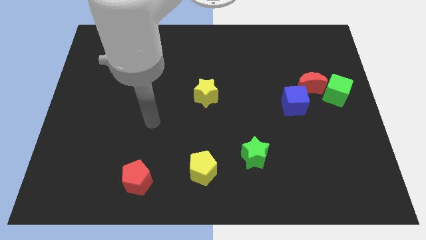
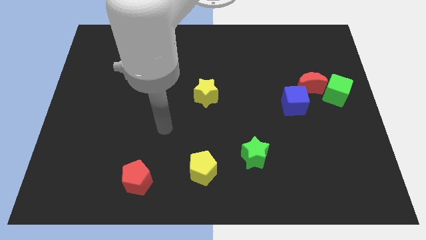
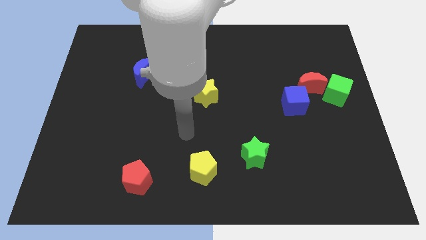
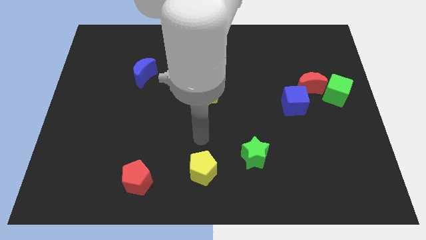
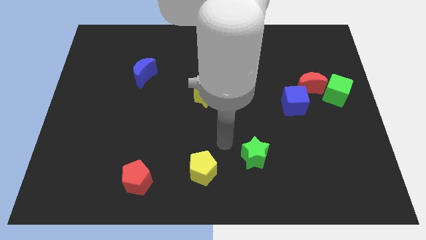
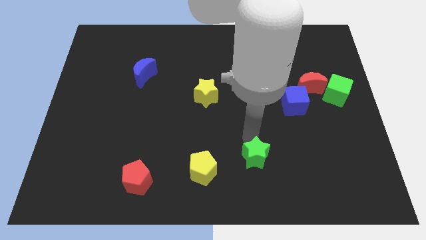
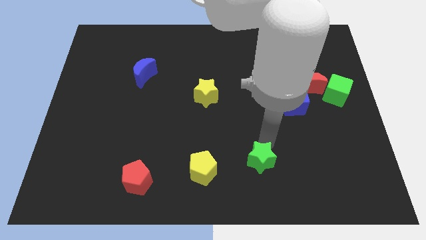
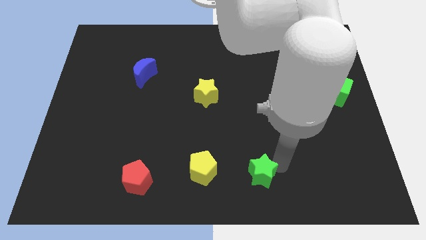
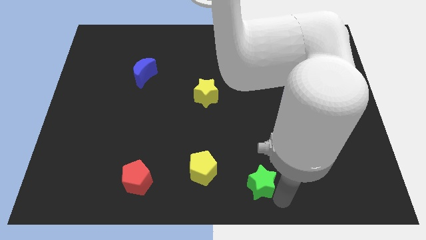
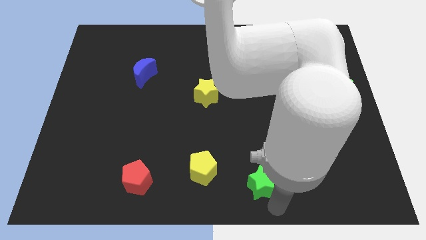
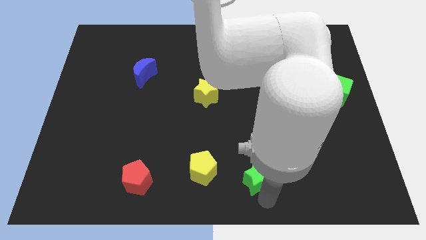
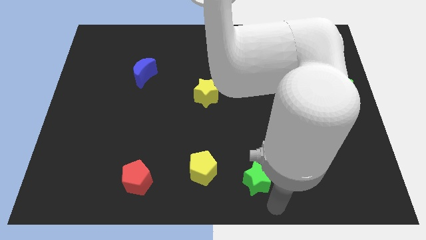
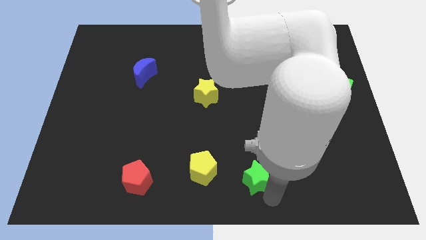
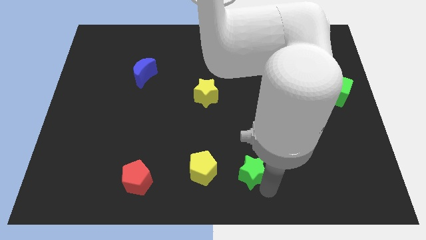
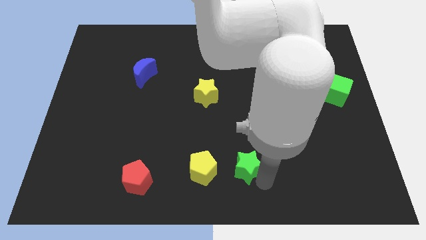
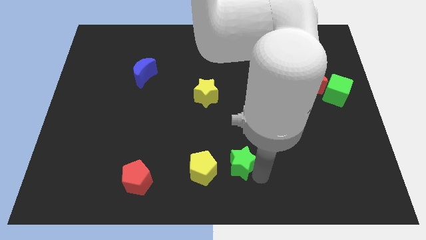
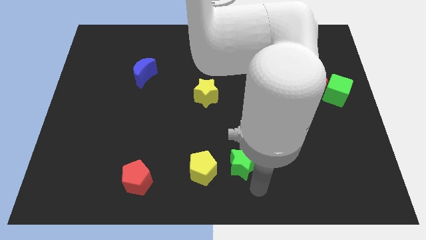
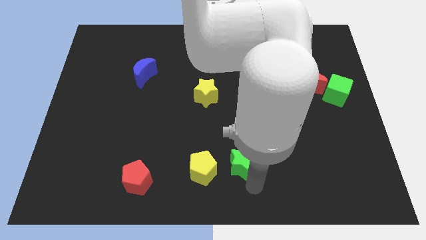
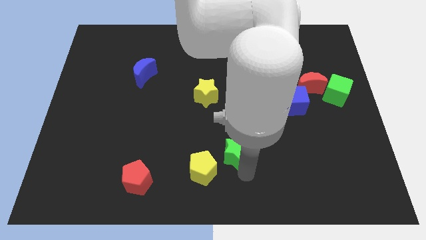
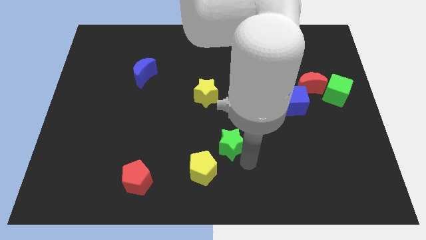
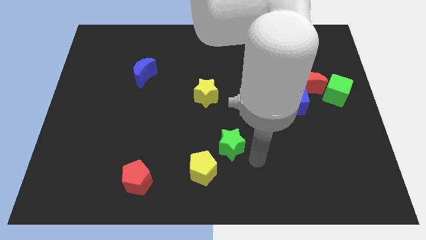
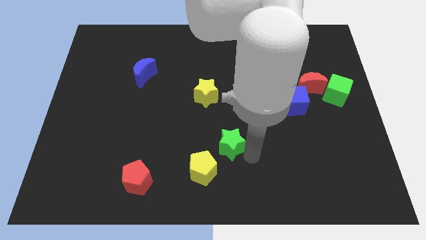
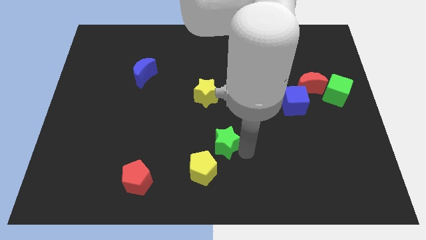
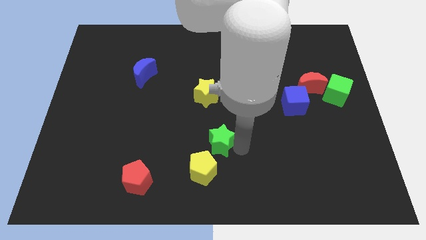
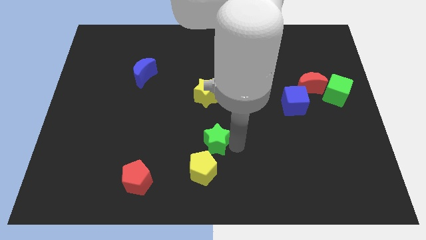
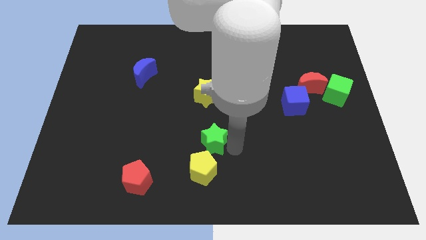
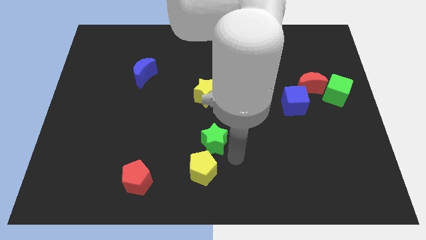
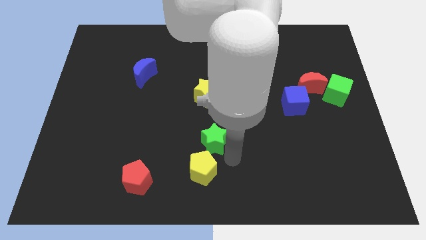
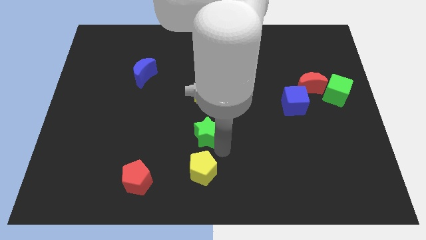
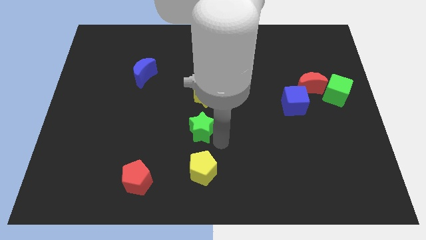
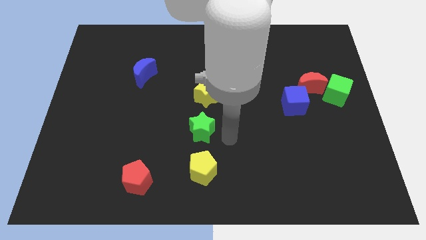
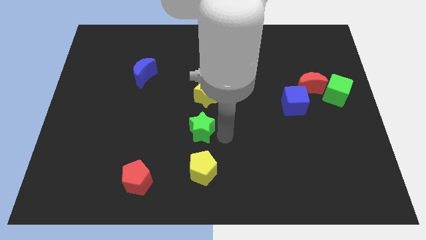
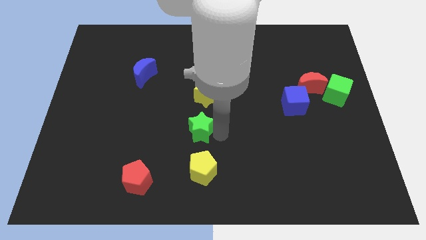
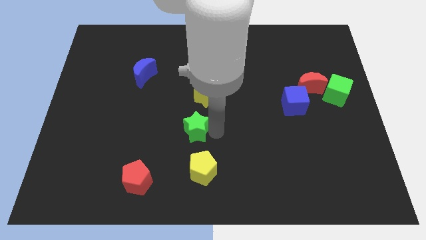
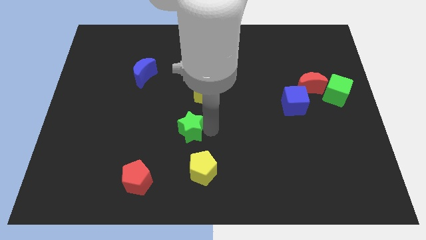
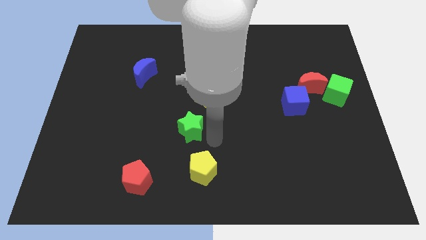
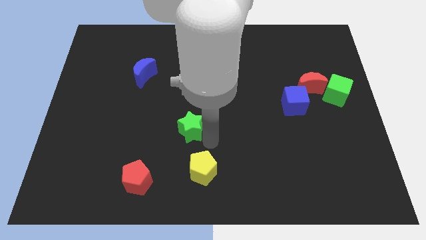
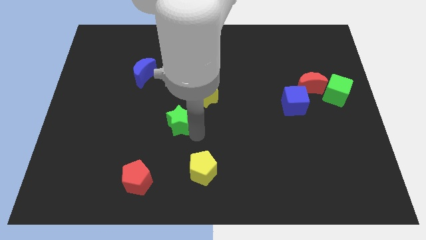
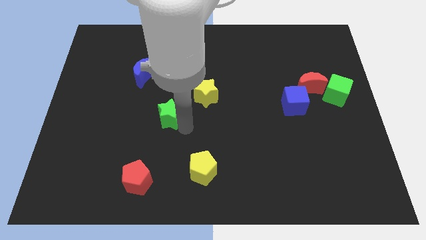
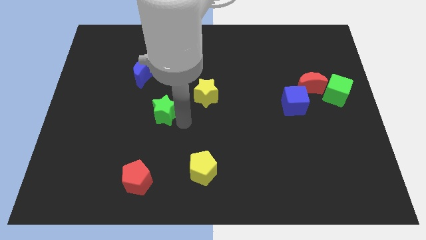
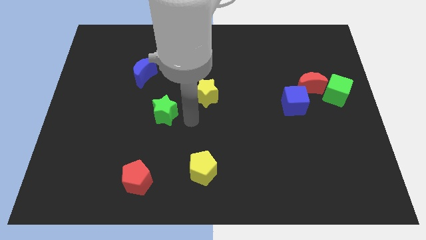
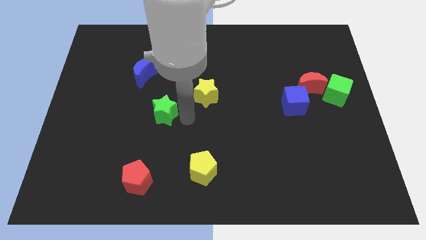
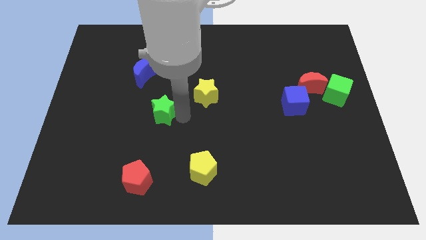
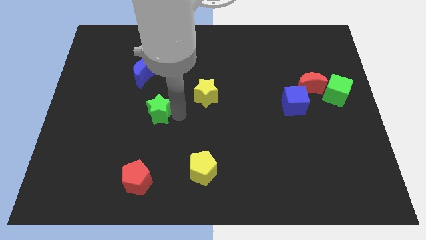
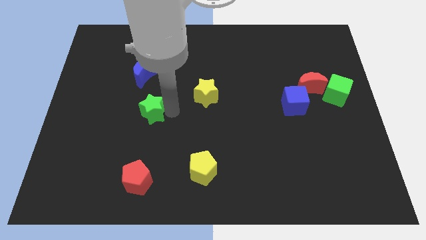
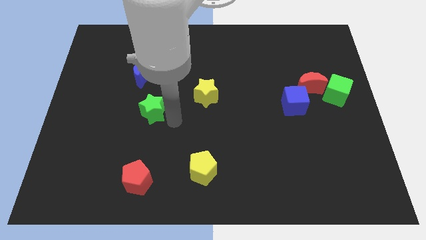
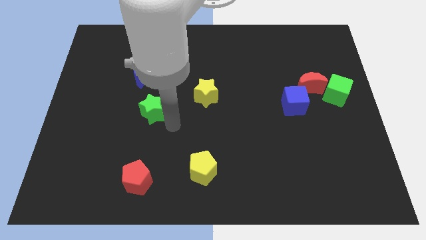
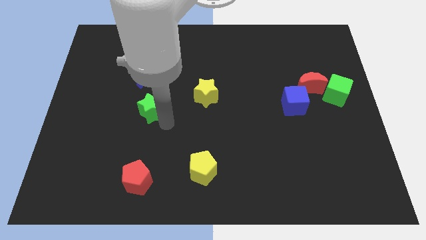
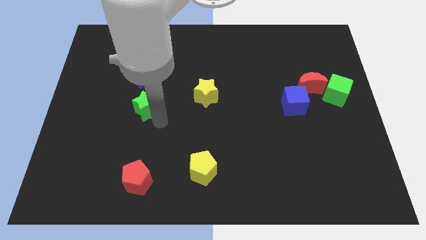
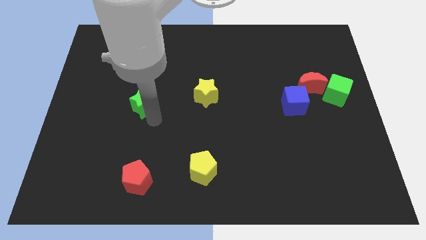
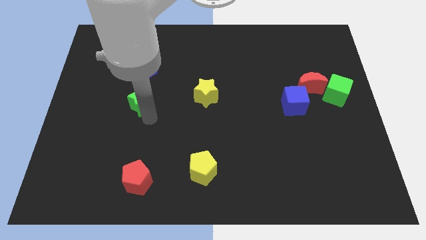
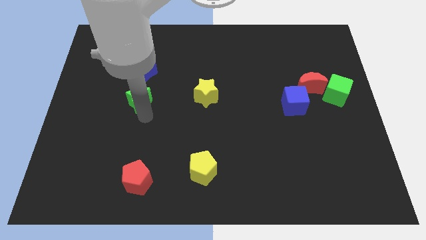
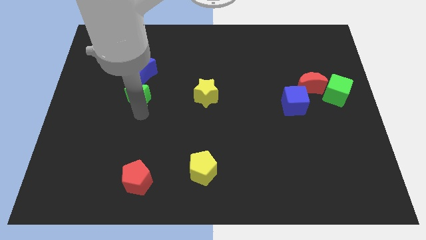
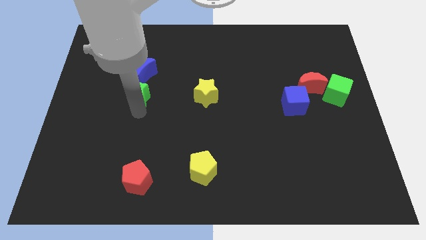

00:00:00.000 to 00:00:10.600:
slide the green star to the bottom left side of the blue moon

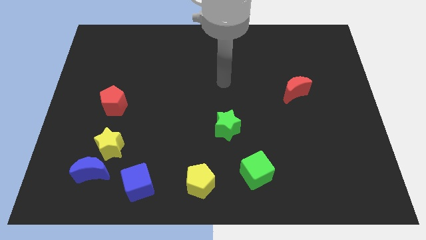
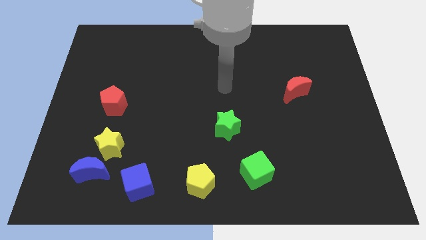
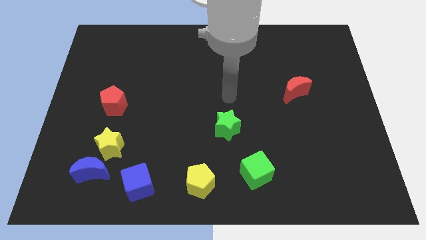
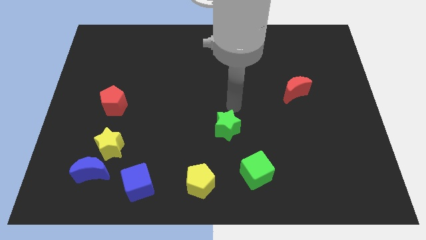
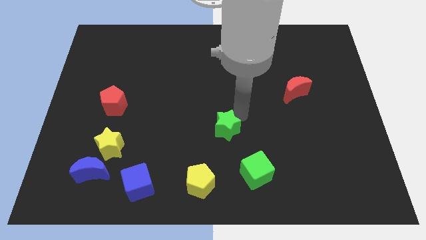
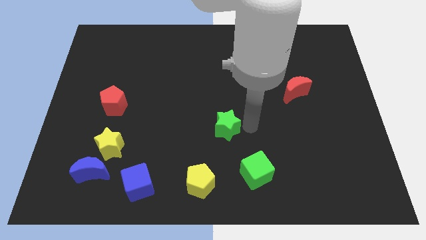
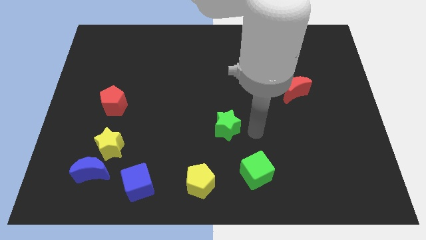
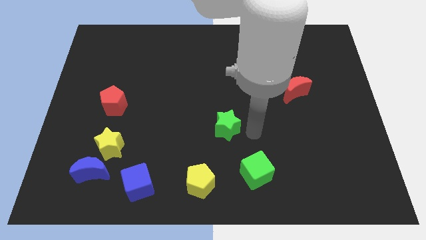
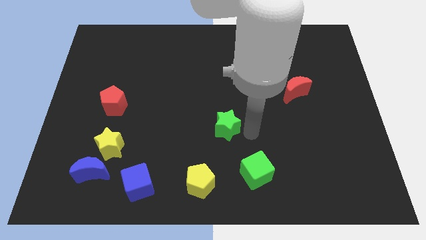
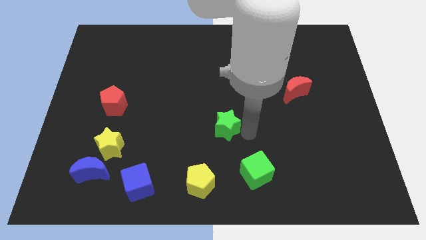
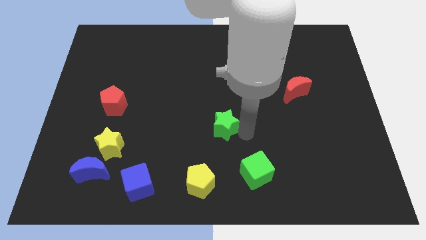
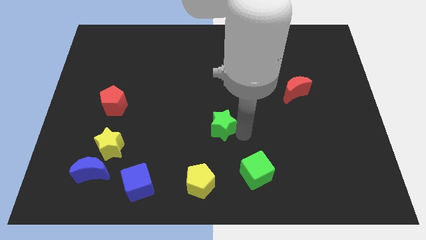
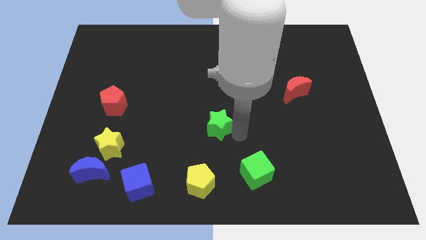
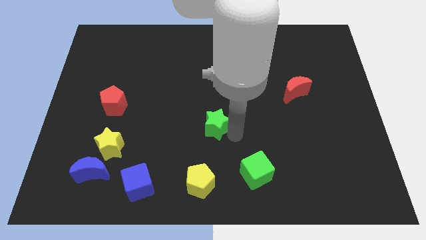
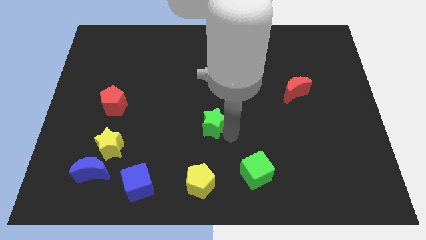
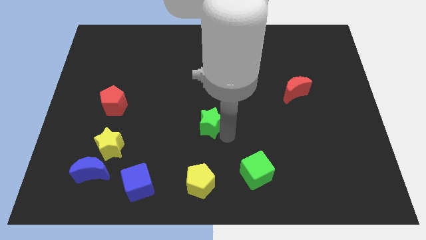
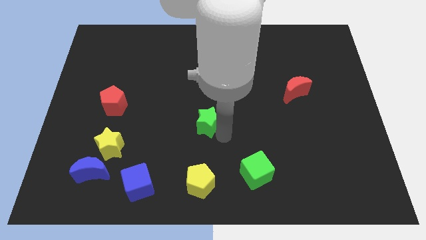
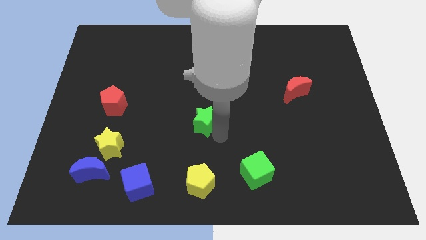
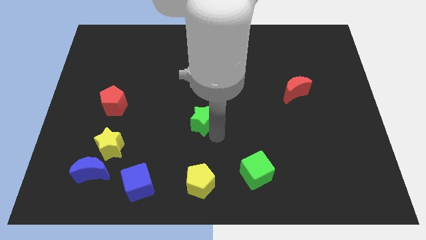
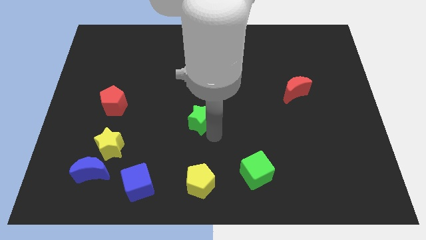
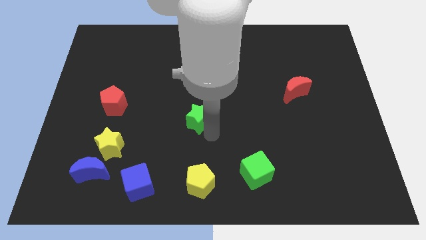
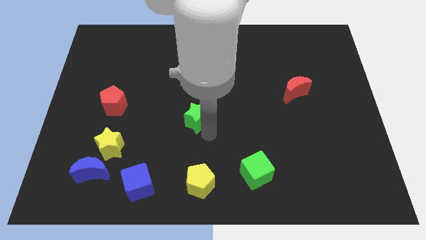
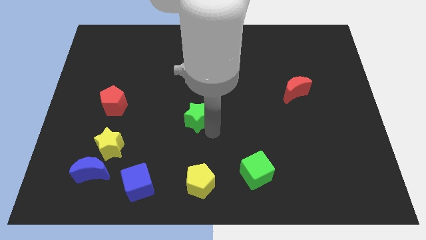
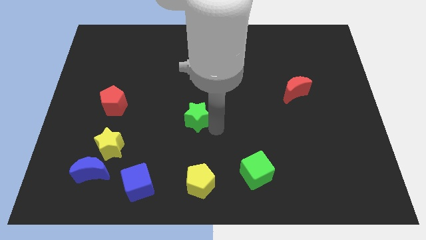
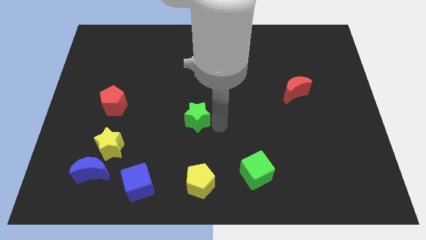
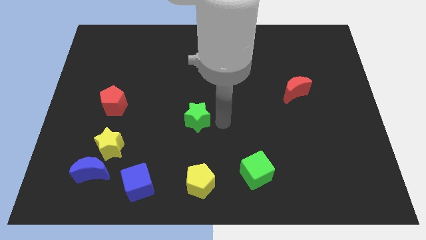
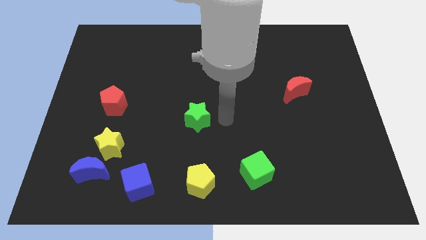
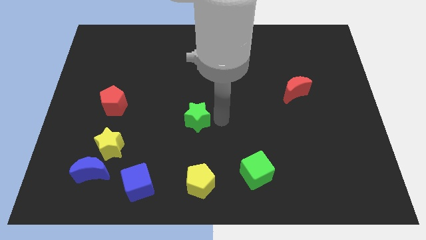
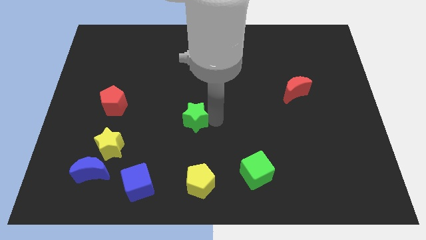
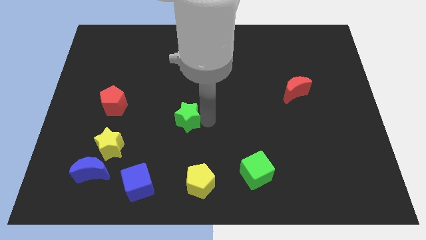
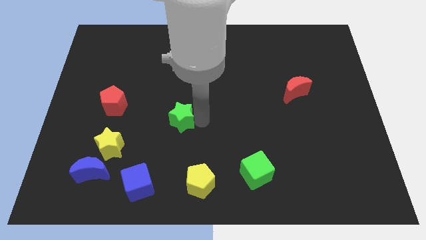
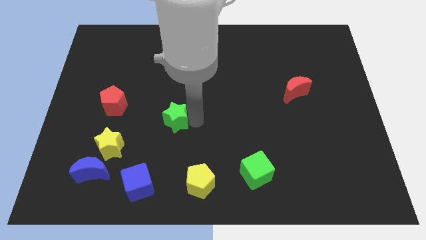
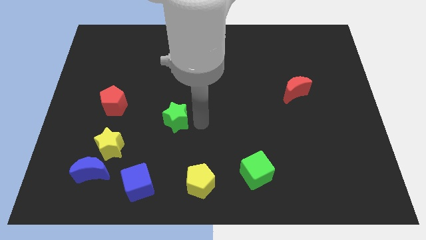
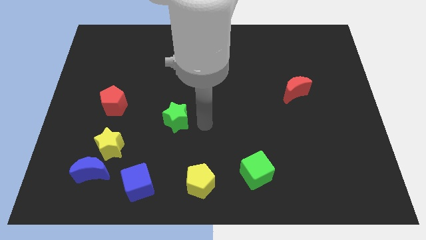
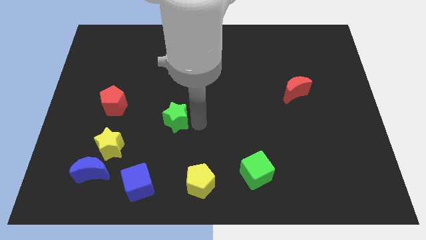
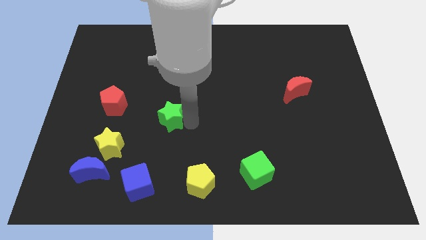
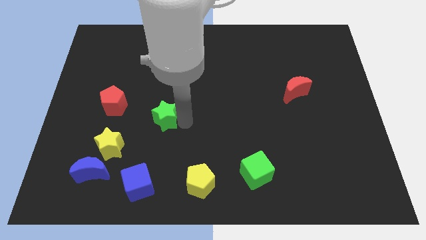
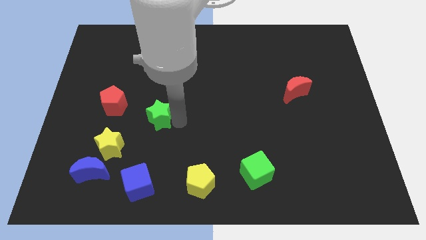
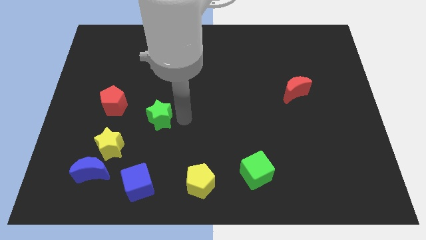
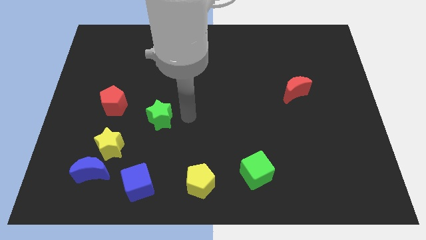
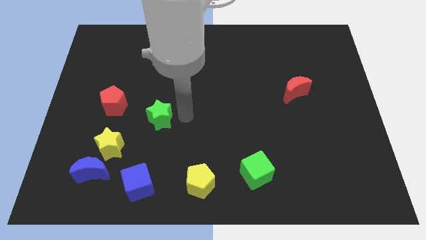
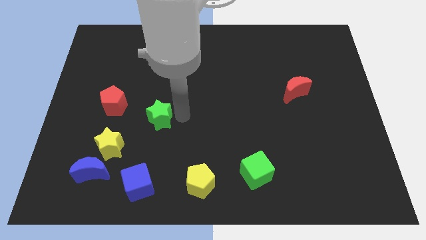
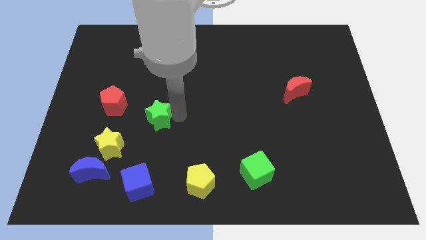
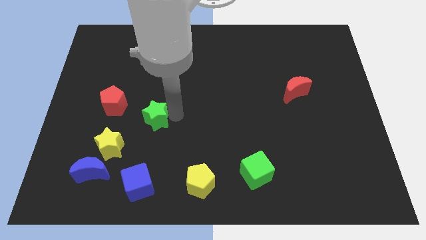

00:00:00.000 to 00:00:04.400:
put the green star diagonally down and to the right of the red pentagon
